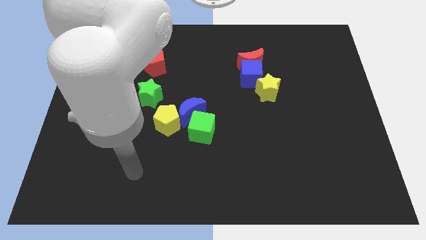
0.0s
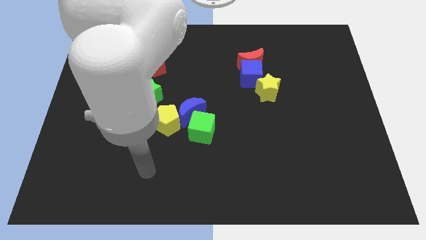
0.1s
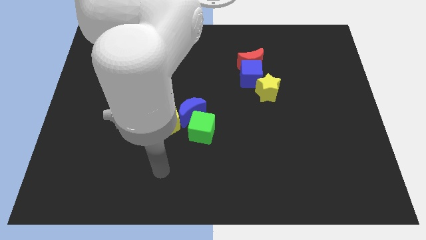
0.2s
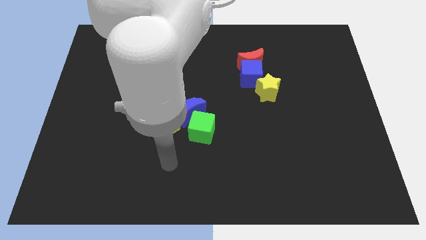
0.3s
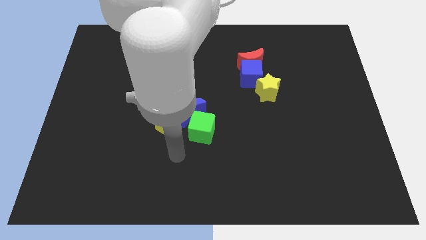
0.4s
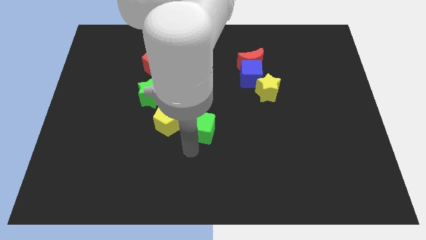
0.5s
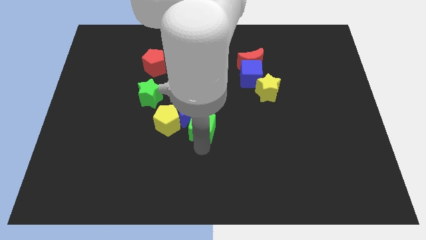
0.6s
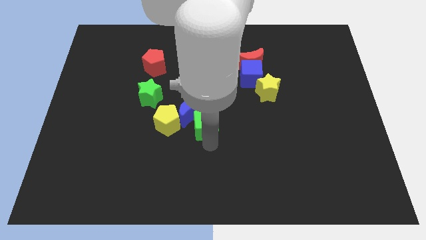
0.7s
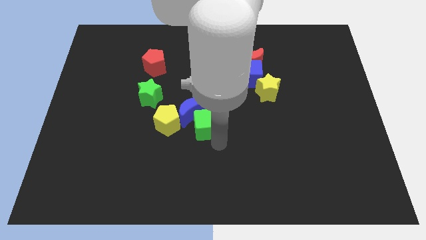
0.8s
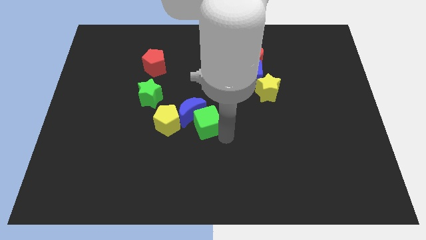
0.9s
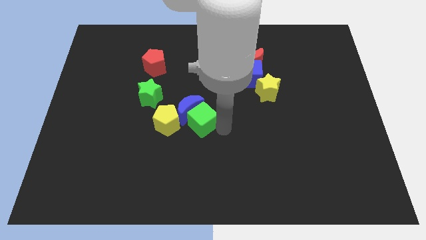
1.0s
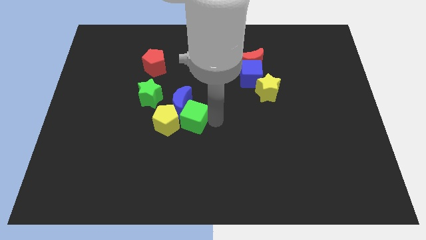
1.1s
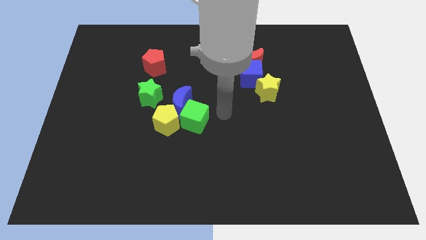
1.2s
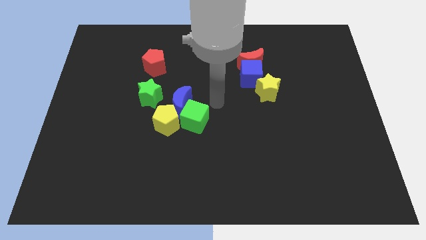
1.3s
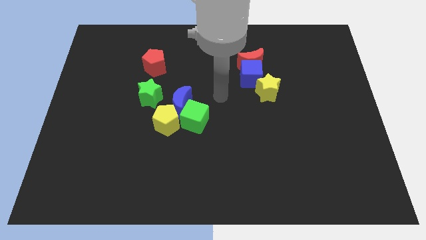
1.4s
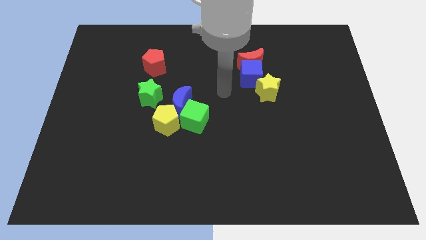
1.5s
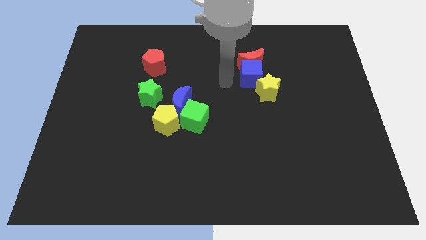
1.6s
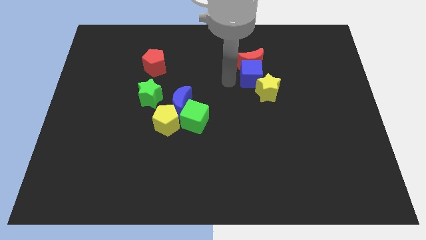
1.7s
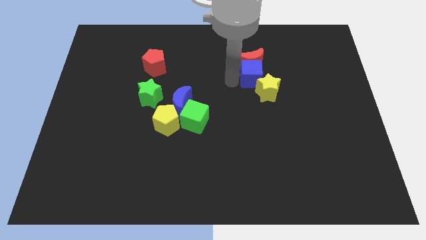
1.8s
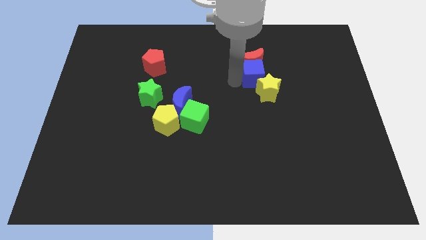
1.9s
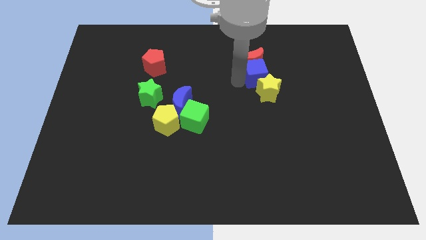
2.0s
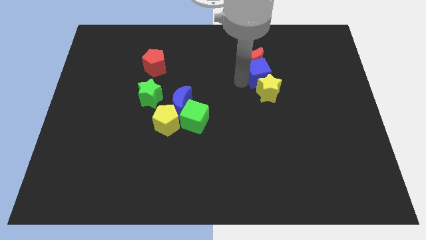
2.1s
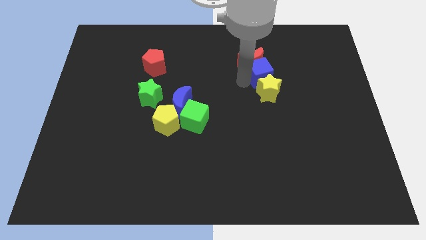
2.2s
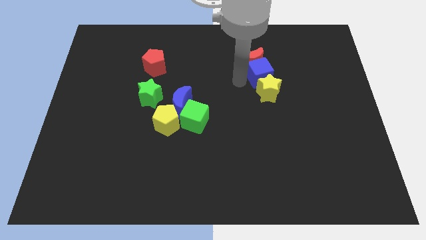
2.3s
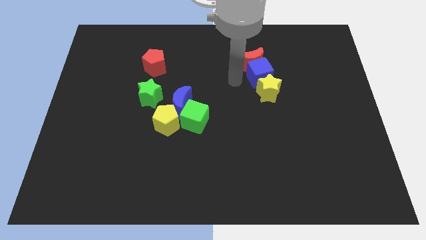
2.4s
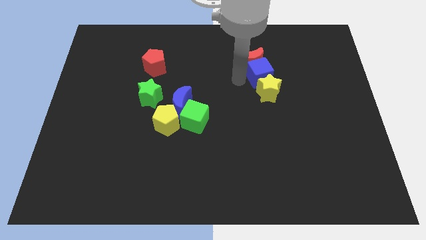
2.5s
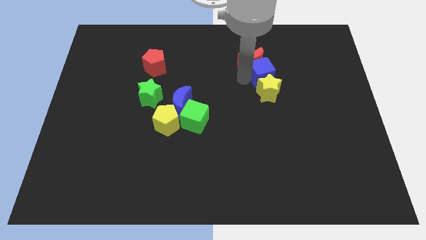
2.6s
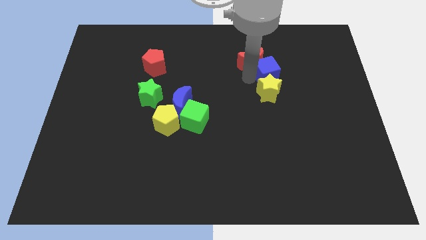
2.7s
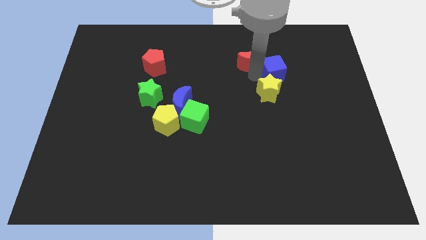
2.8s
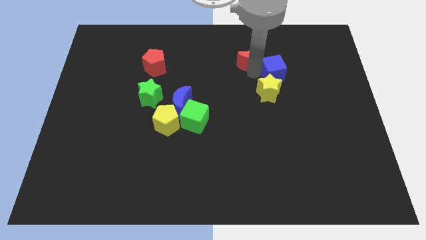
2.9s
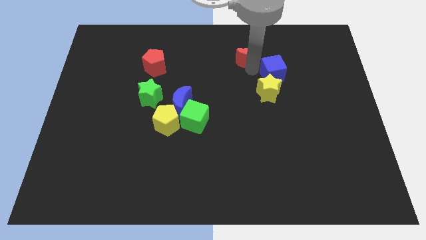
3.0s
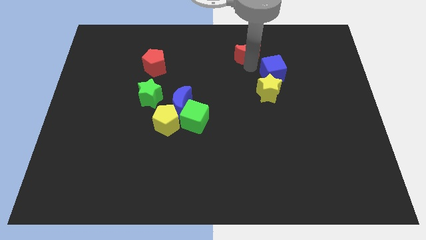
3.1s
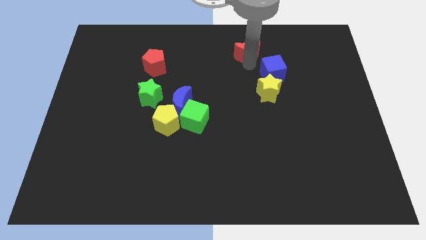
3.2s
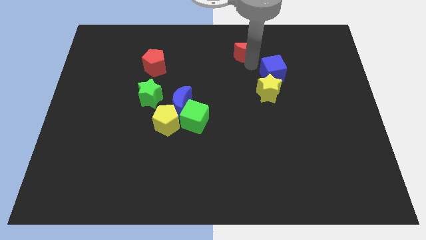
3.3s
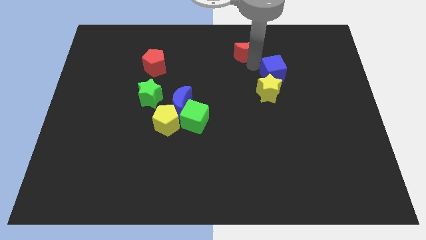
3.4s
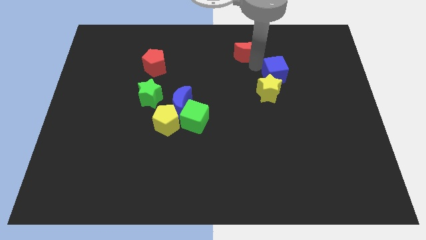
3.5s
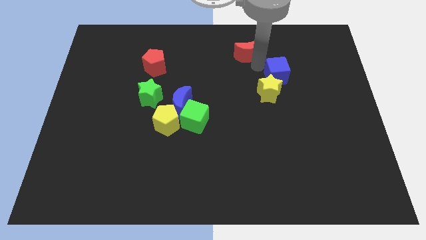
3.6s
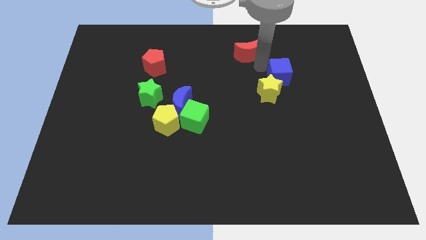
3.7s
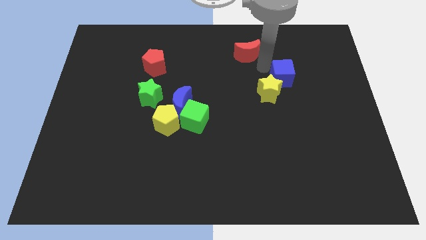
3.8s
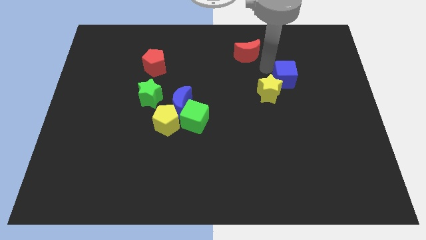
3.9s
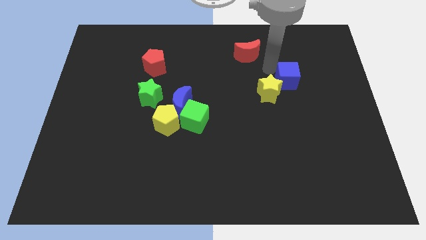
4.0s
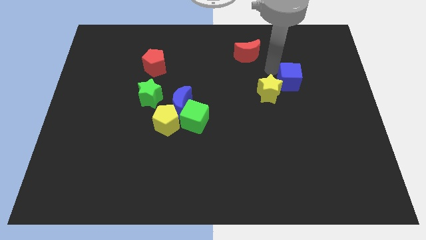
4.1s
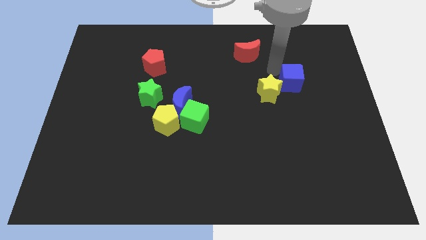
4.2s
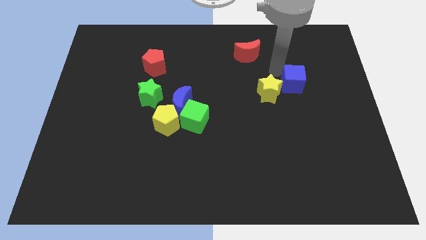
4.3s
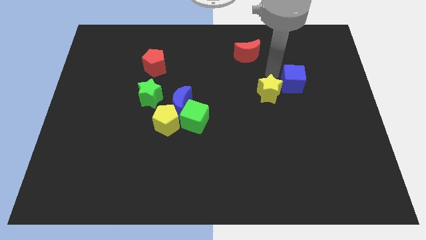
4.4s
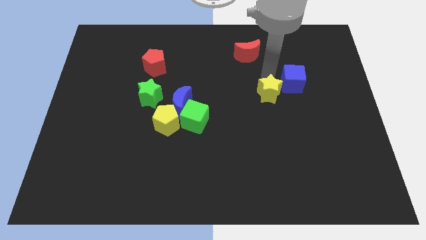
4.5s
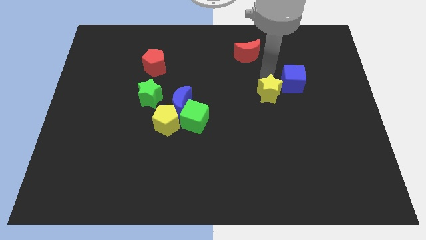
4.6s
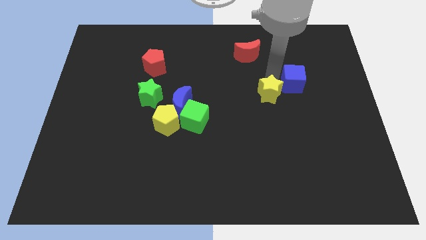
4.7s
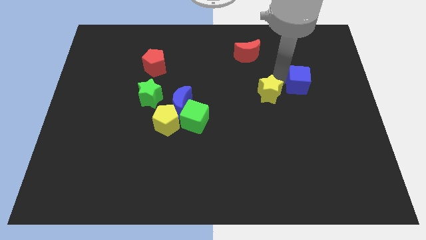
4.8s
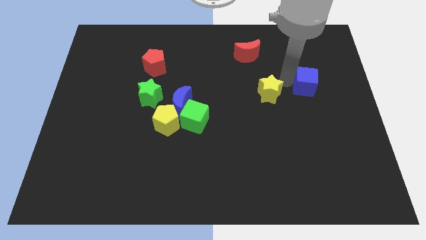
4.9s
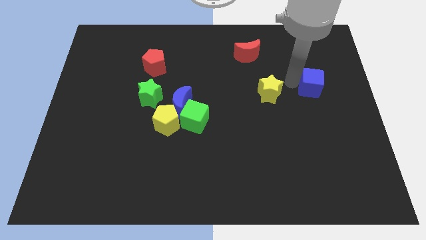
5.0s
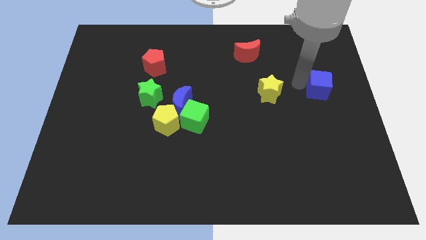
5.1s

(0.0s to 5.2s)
put the blue cube to the right side of the board

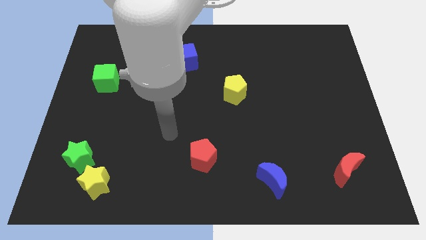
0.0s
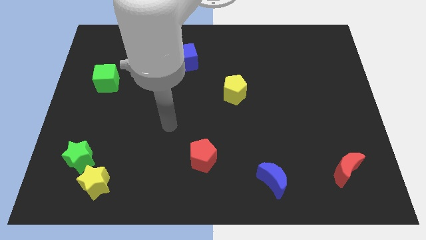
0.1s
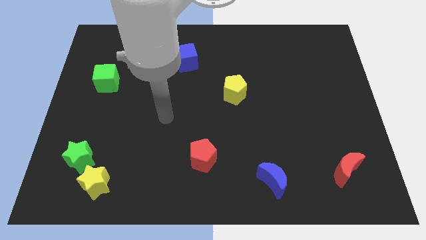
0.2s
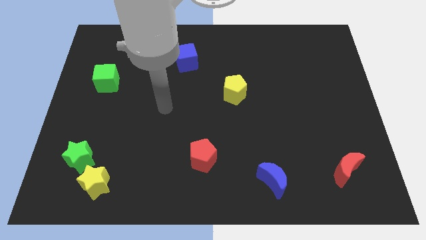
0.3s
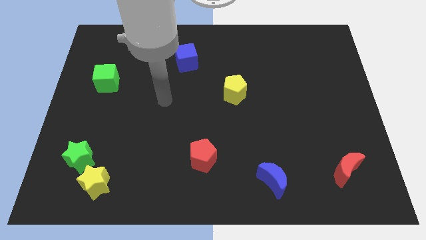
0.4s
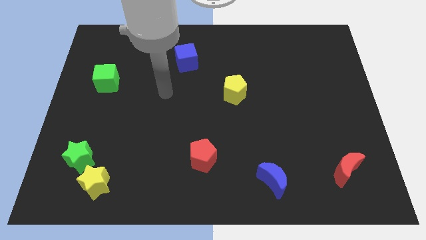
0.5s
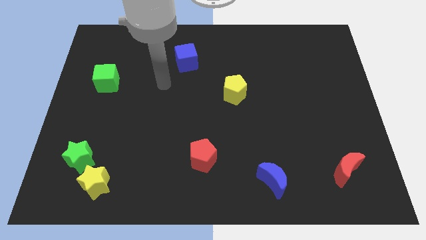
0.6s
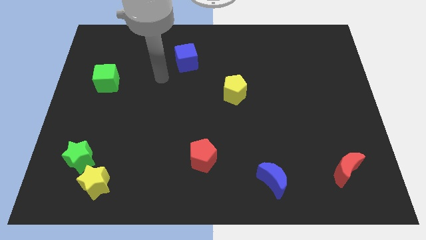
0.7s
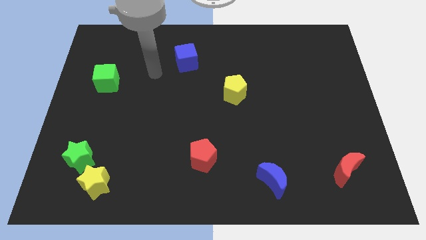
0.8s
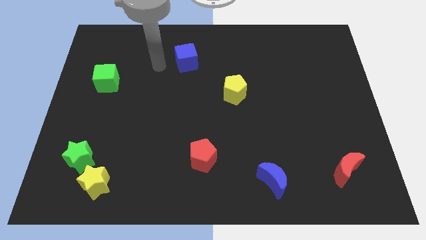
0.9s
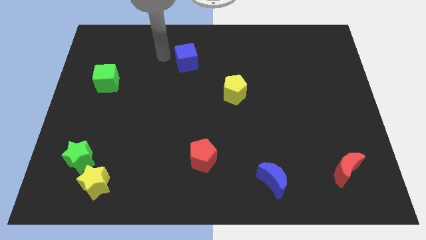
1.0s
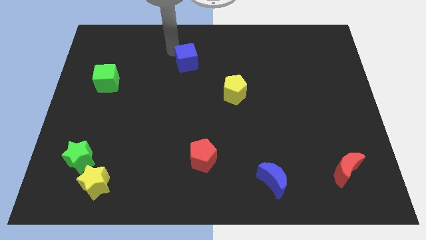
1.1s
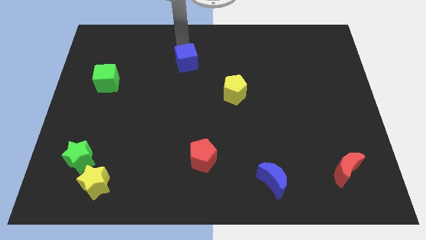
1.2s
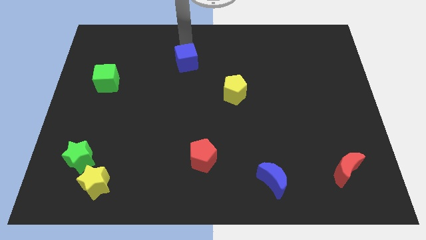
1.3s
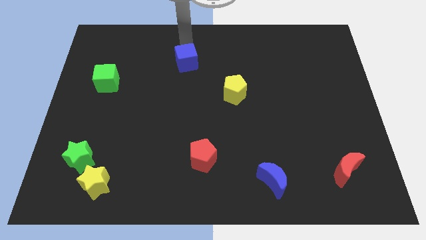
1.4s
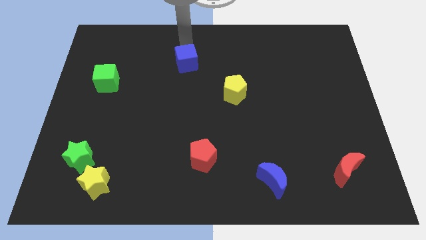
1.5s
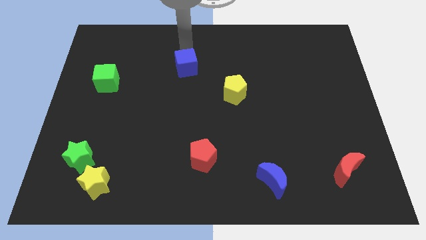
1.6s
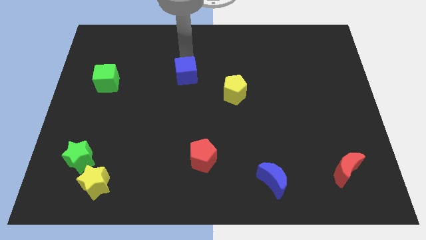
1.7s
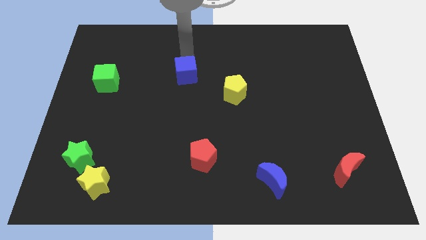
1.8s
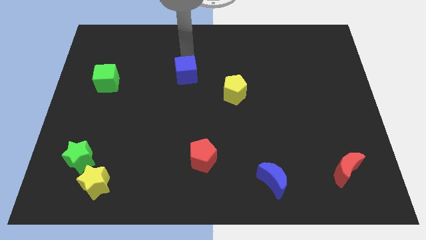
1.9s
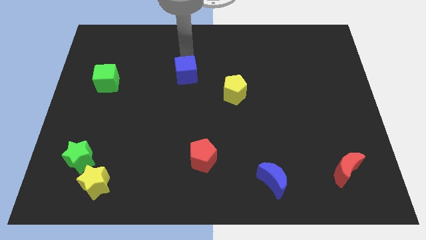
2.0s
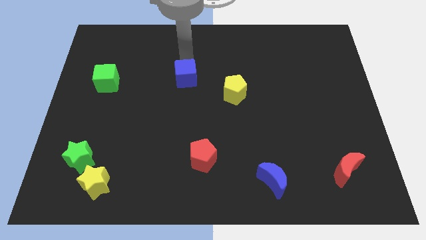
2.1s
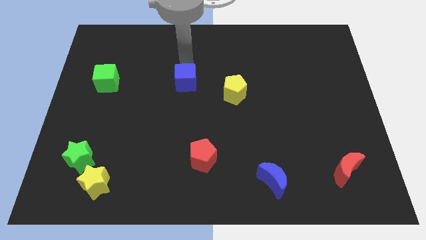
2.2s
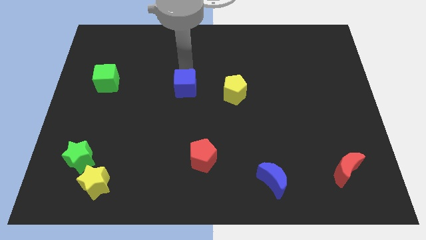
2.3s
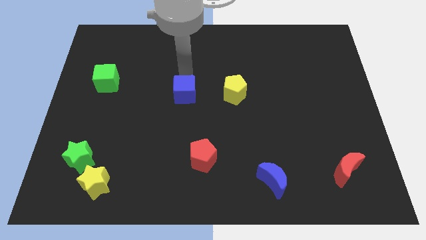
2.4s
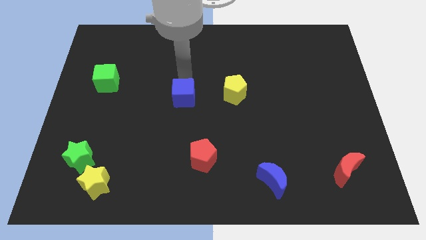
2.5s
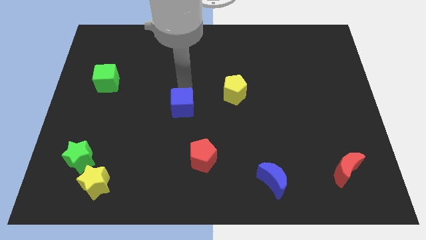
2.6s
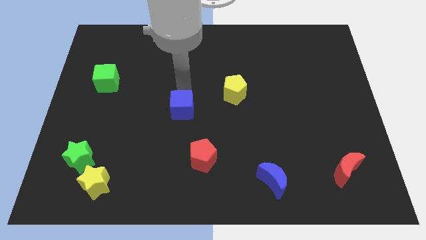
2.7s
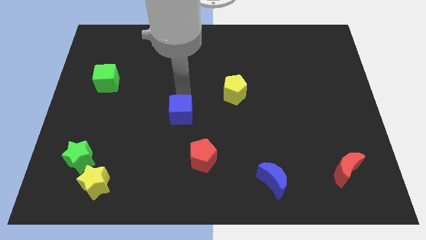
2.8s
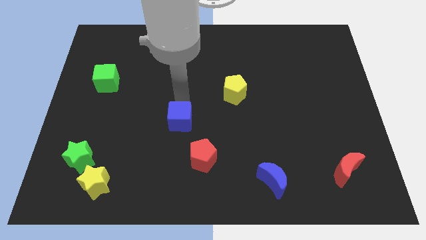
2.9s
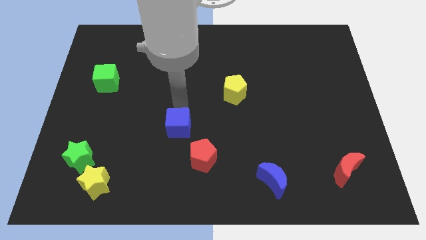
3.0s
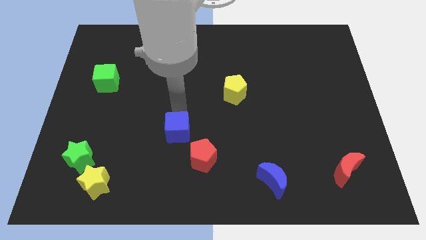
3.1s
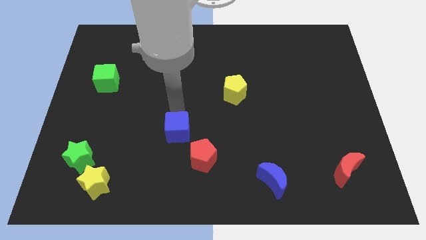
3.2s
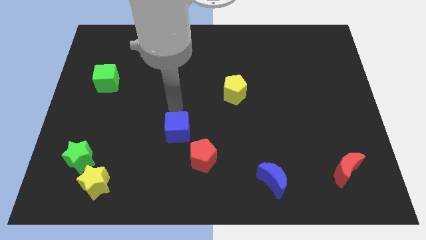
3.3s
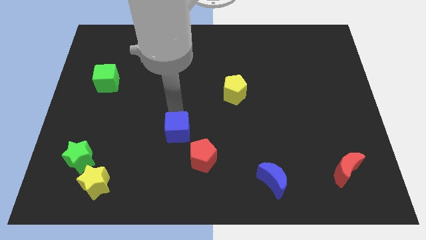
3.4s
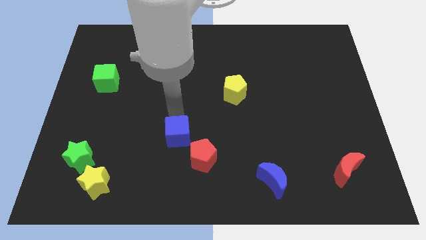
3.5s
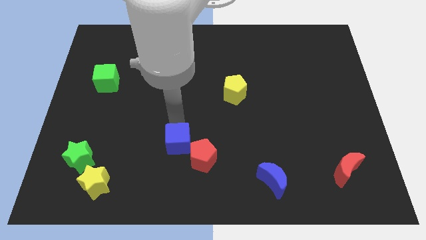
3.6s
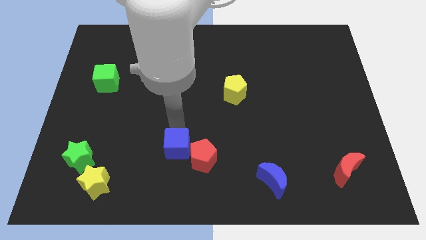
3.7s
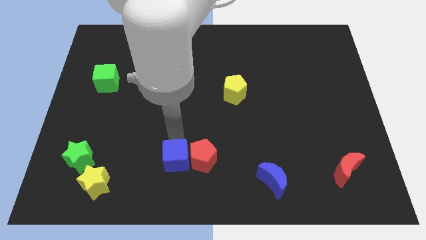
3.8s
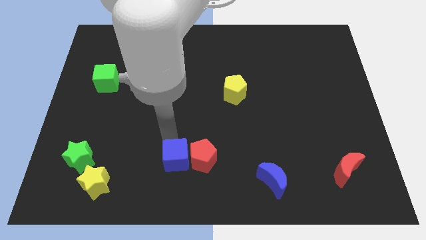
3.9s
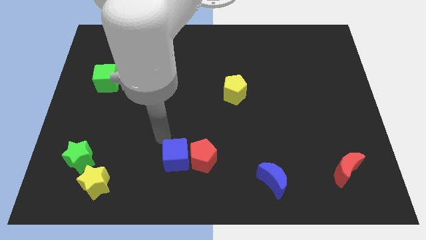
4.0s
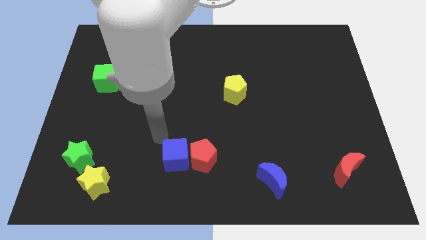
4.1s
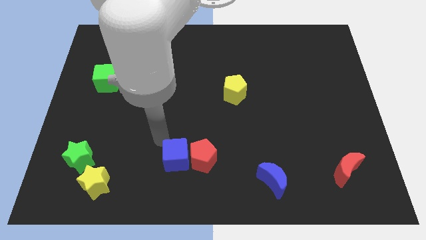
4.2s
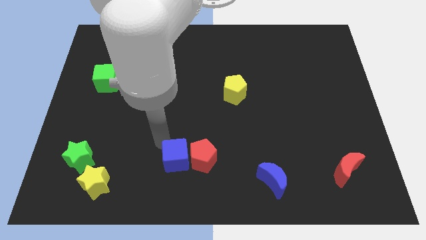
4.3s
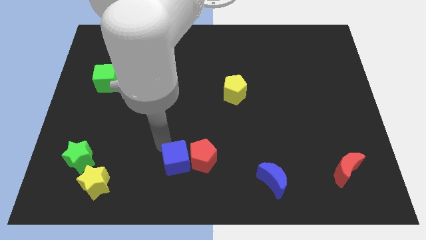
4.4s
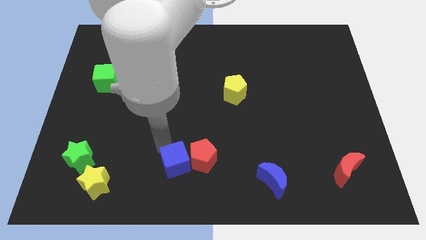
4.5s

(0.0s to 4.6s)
put the blue cube to the bottom side
